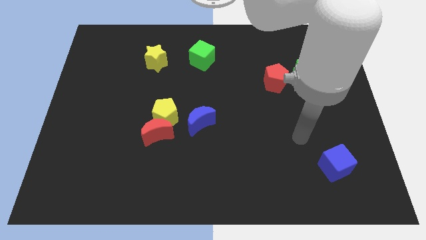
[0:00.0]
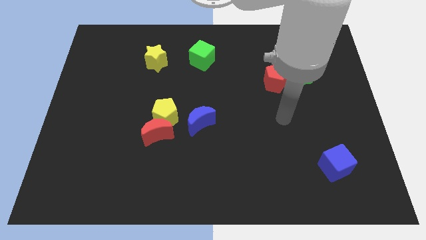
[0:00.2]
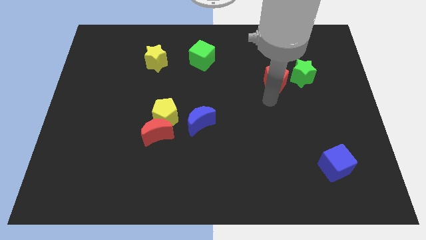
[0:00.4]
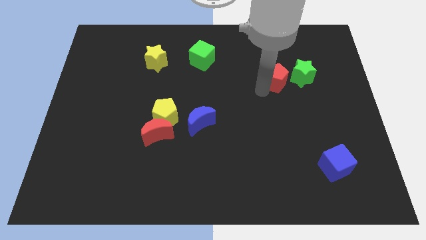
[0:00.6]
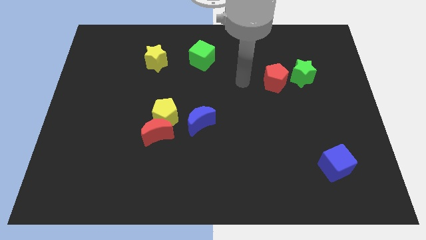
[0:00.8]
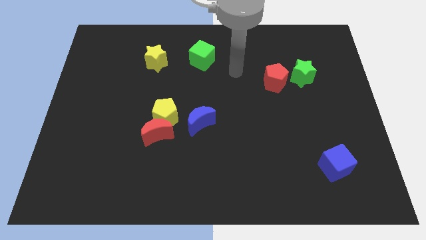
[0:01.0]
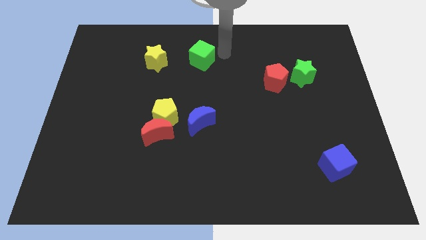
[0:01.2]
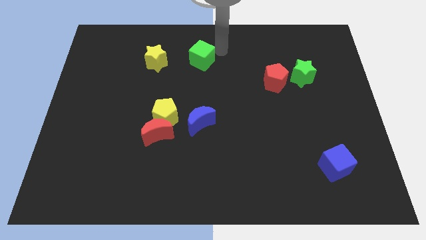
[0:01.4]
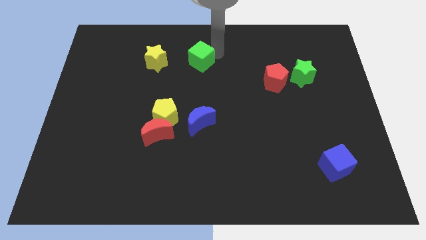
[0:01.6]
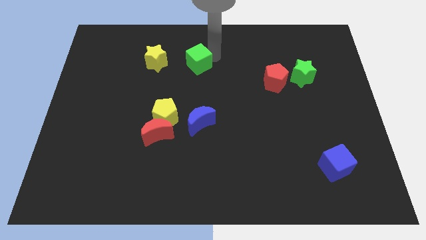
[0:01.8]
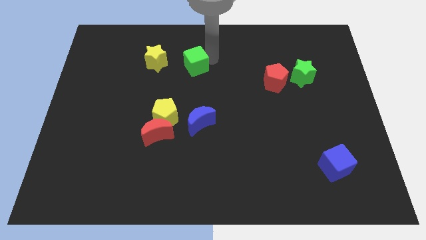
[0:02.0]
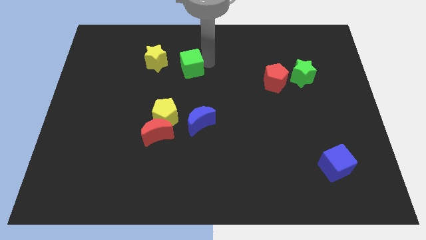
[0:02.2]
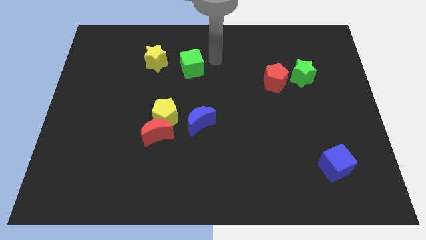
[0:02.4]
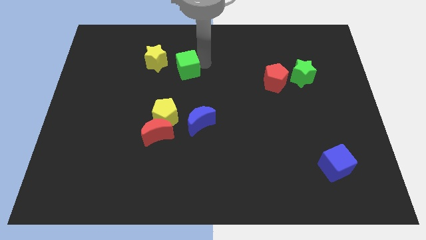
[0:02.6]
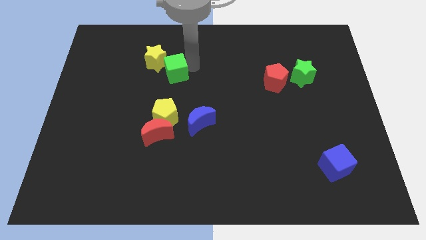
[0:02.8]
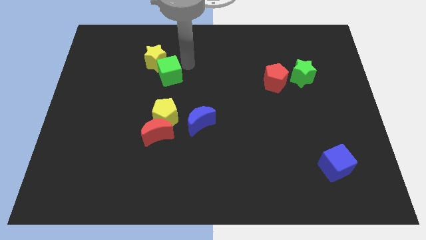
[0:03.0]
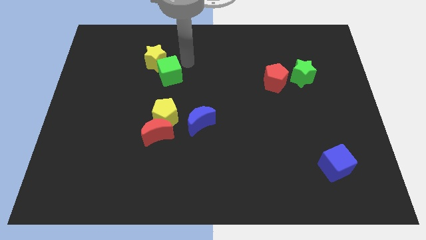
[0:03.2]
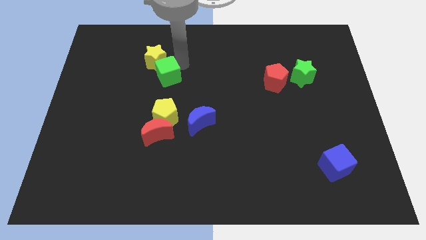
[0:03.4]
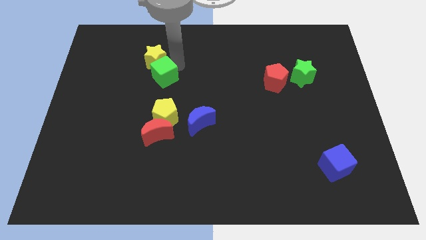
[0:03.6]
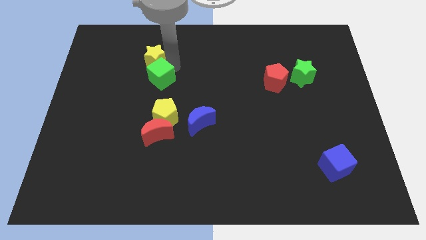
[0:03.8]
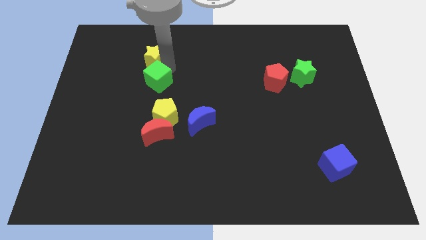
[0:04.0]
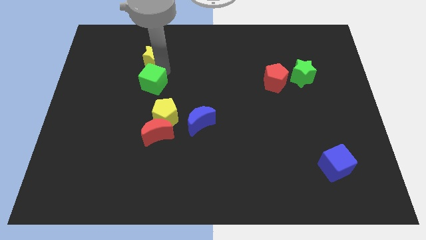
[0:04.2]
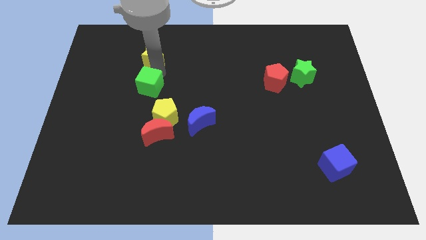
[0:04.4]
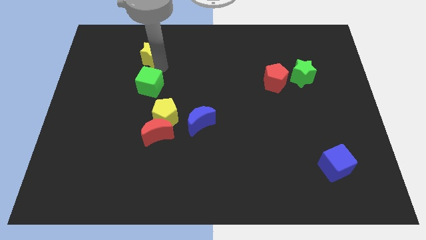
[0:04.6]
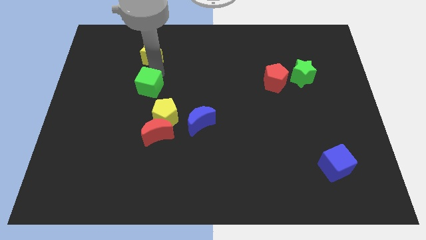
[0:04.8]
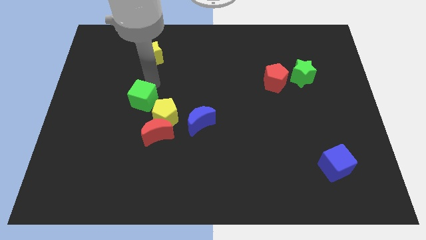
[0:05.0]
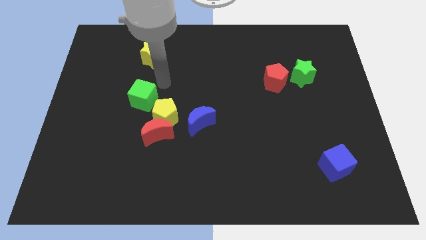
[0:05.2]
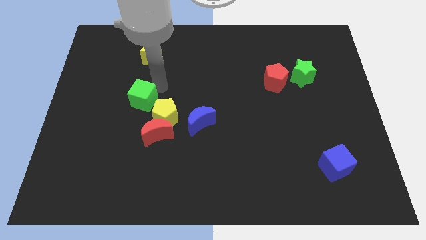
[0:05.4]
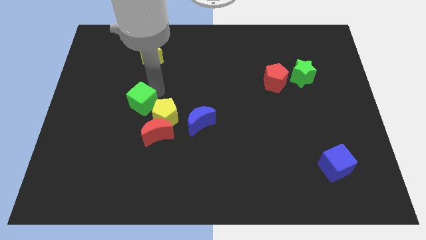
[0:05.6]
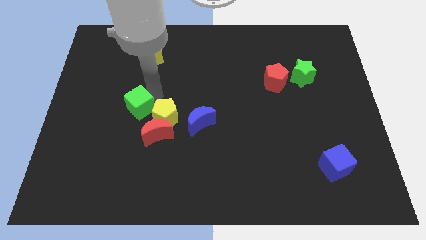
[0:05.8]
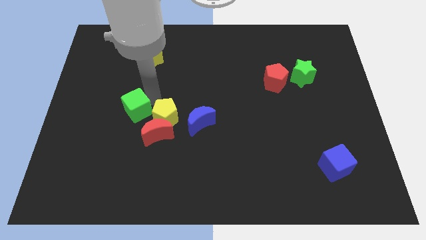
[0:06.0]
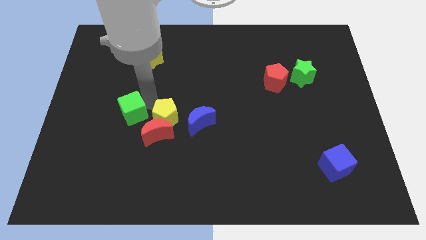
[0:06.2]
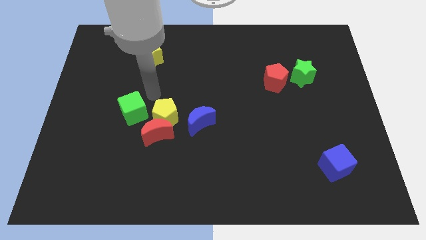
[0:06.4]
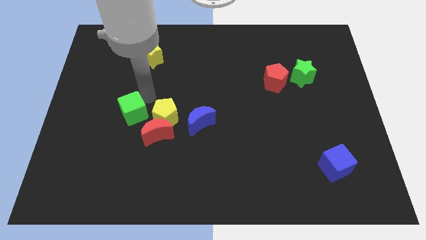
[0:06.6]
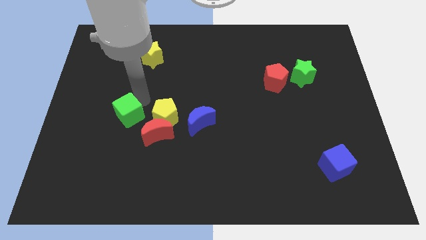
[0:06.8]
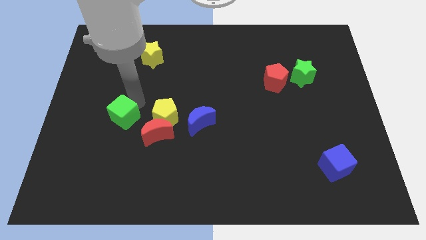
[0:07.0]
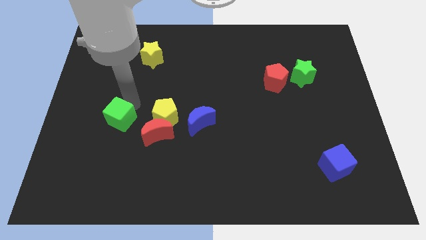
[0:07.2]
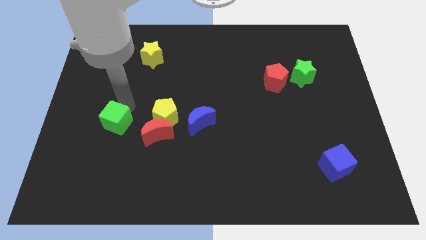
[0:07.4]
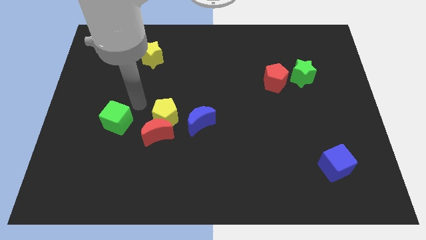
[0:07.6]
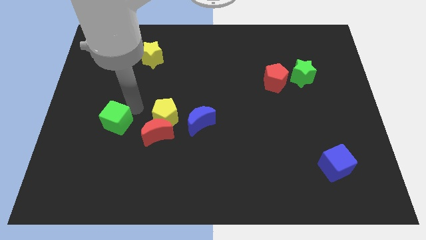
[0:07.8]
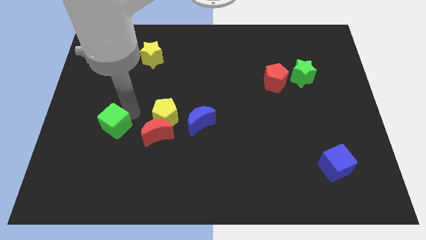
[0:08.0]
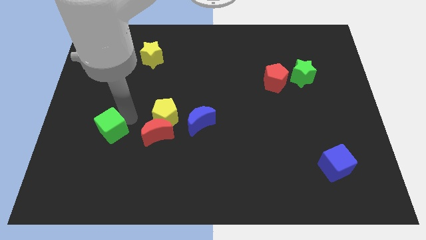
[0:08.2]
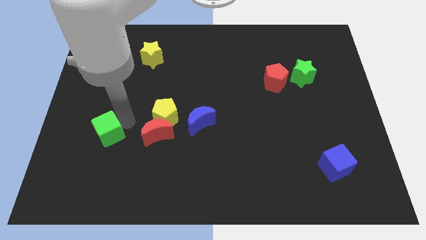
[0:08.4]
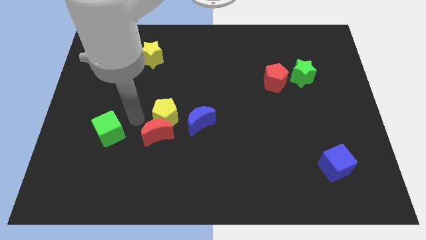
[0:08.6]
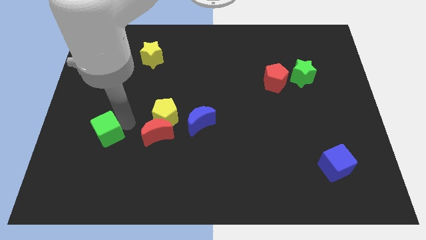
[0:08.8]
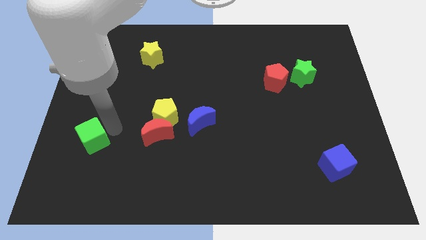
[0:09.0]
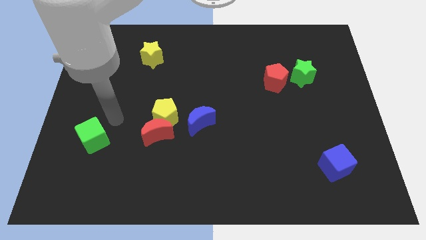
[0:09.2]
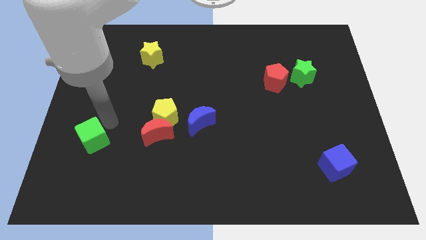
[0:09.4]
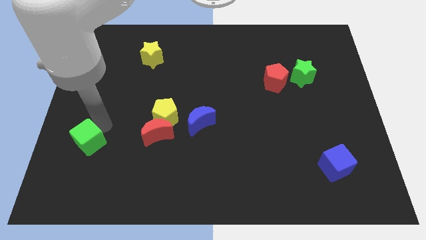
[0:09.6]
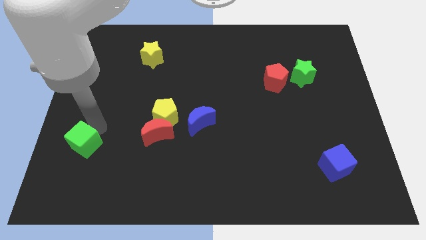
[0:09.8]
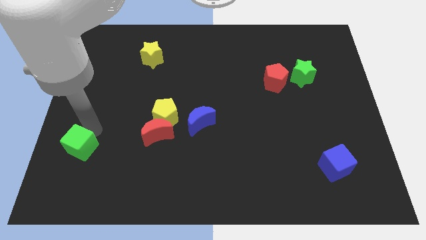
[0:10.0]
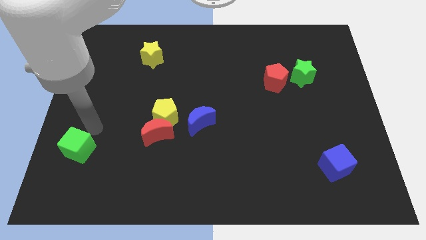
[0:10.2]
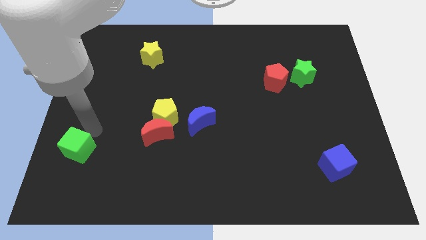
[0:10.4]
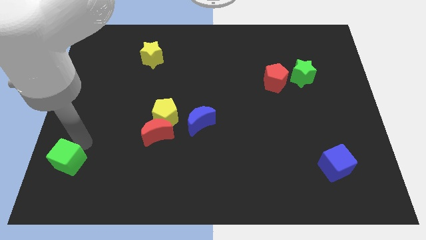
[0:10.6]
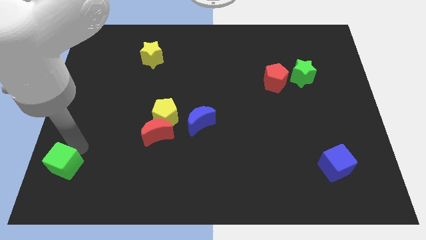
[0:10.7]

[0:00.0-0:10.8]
put the green cube to the lower left corner
